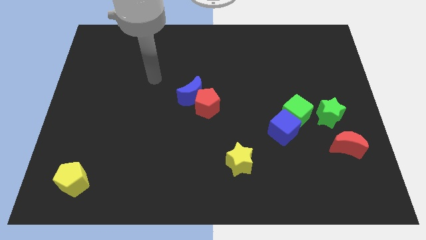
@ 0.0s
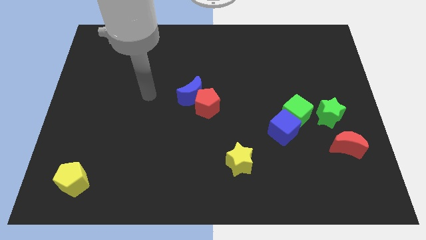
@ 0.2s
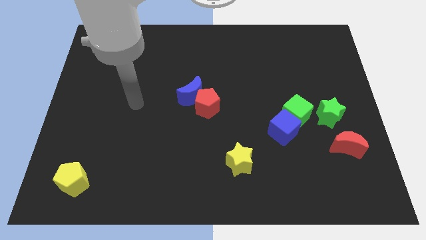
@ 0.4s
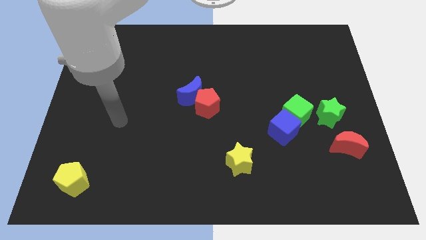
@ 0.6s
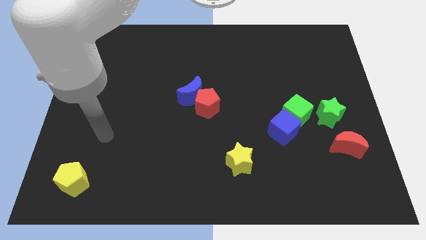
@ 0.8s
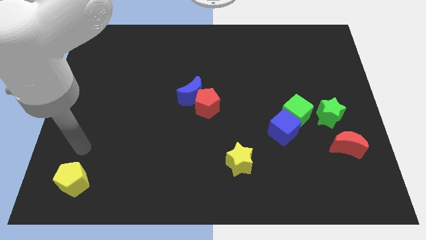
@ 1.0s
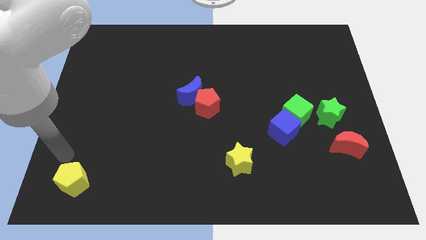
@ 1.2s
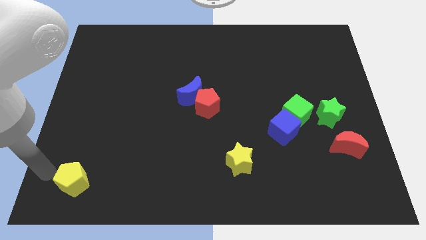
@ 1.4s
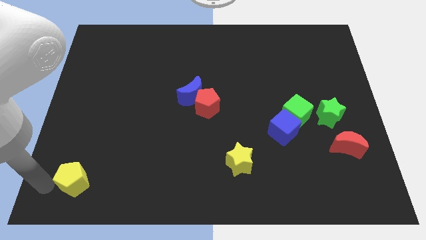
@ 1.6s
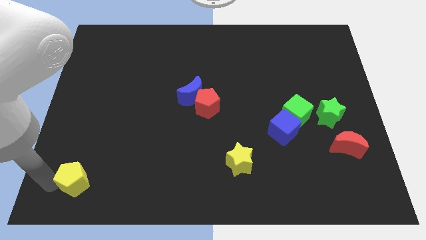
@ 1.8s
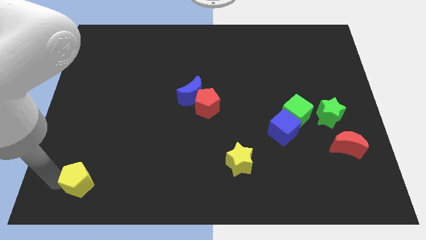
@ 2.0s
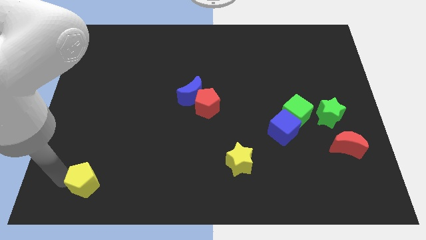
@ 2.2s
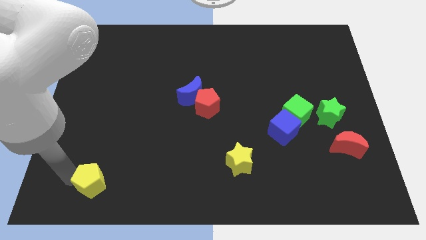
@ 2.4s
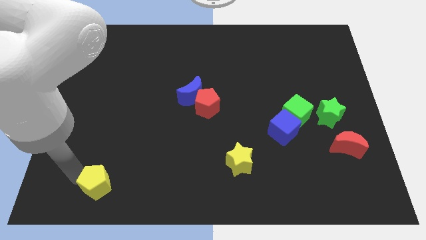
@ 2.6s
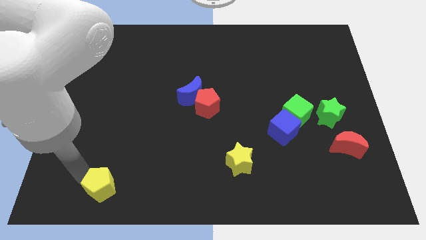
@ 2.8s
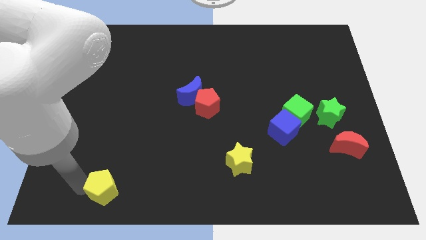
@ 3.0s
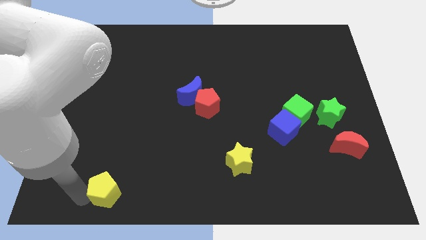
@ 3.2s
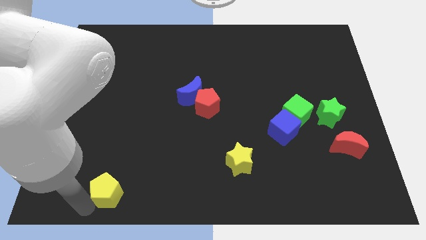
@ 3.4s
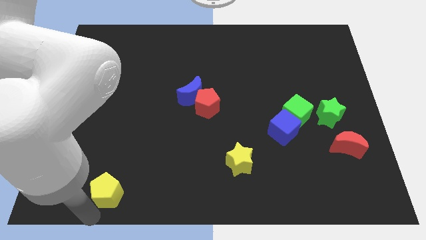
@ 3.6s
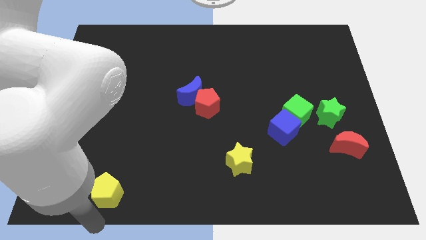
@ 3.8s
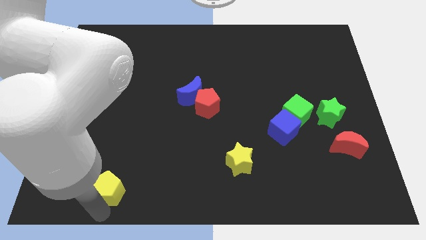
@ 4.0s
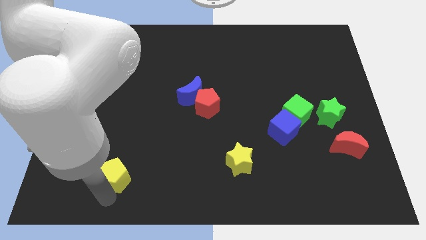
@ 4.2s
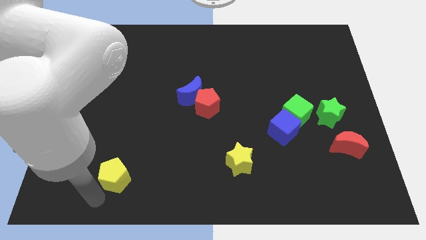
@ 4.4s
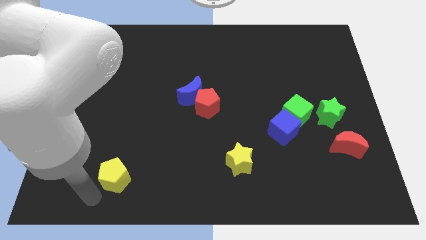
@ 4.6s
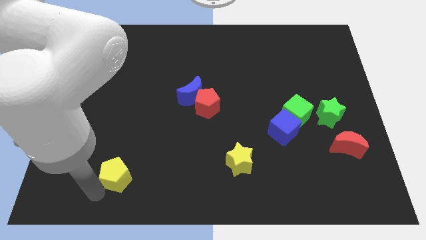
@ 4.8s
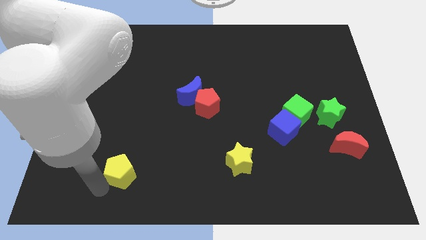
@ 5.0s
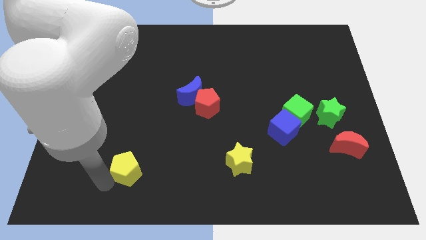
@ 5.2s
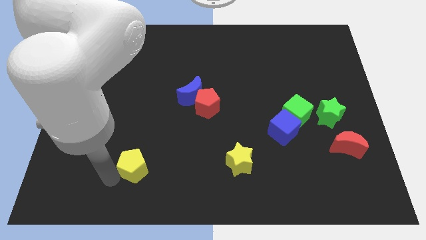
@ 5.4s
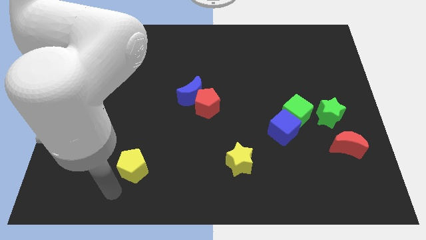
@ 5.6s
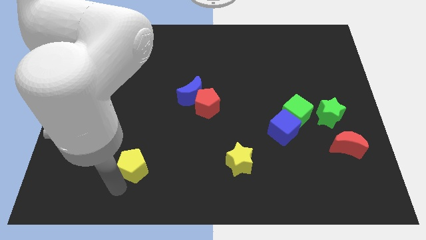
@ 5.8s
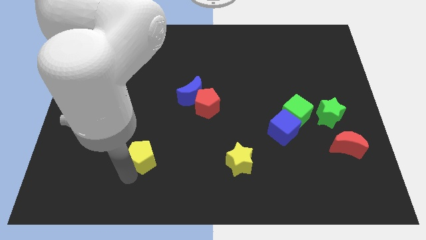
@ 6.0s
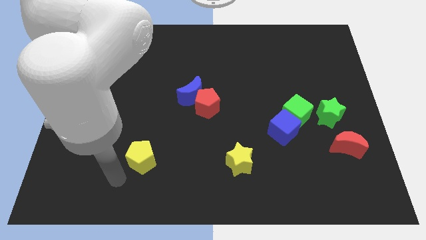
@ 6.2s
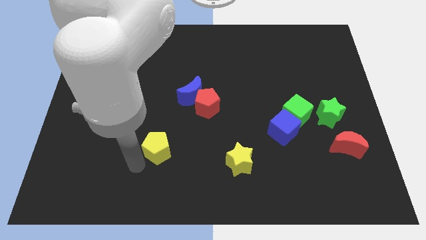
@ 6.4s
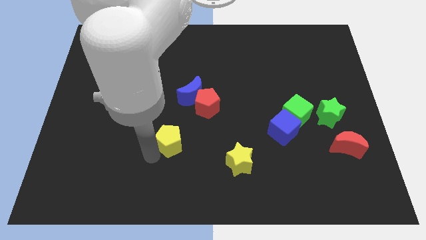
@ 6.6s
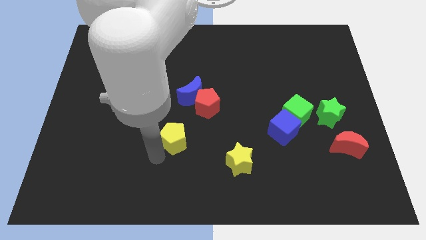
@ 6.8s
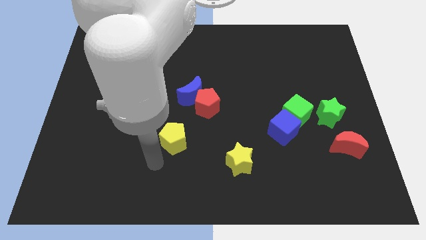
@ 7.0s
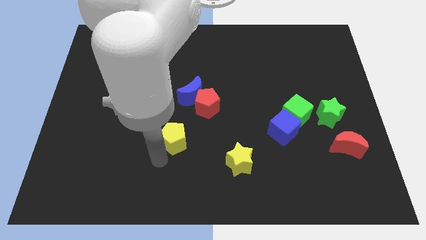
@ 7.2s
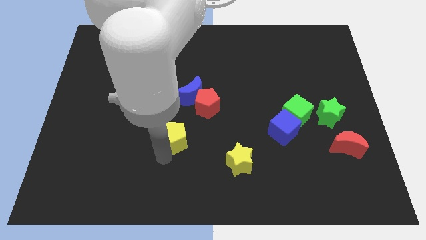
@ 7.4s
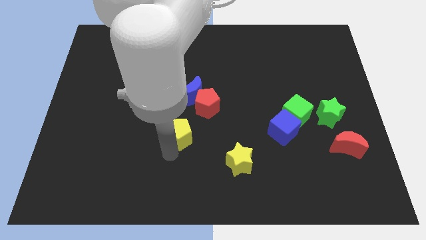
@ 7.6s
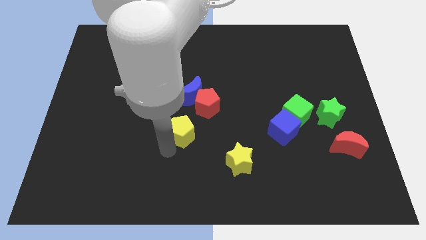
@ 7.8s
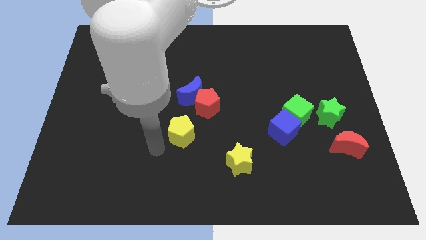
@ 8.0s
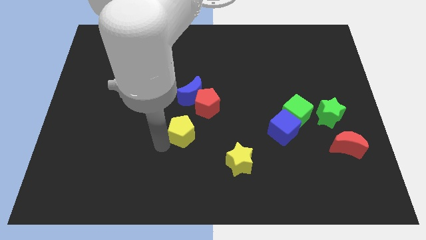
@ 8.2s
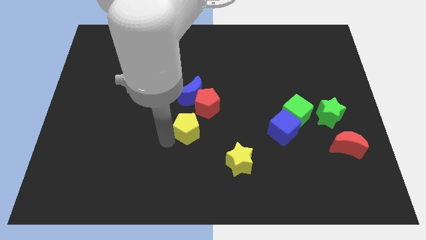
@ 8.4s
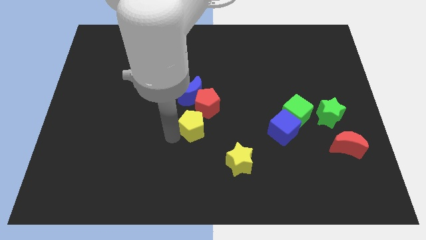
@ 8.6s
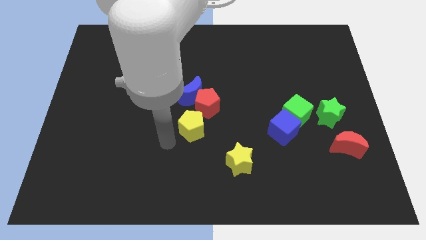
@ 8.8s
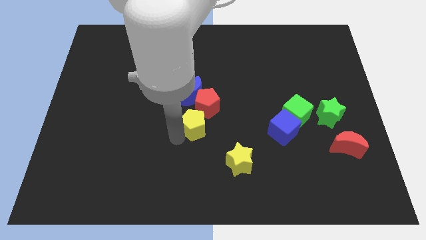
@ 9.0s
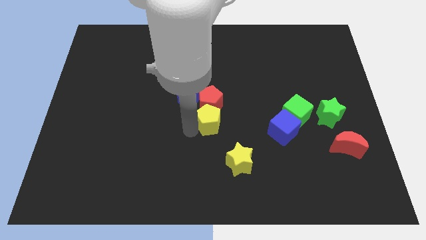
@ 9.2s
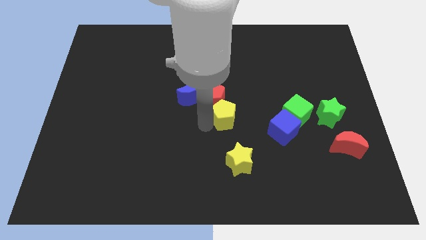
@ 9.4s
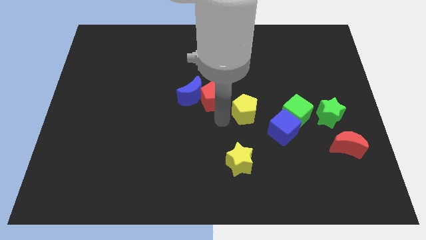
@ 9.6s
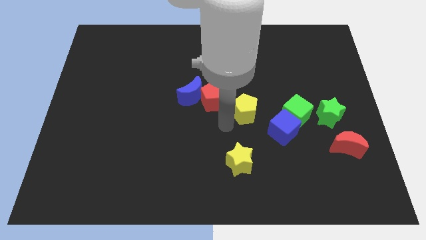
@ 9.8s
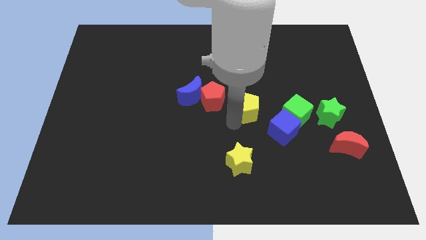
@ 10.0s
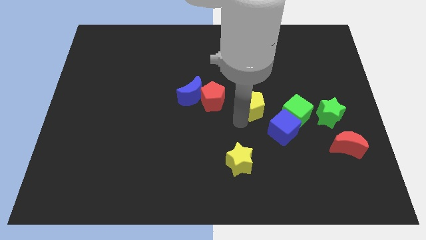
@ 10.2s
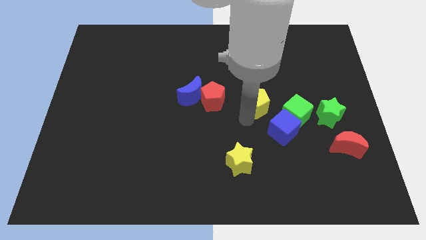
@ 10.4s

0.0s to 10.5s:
put the yellow pentagon diagonally up and to the left of the green cube

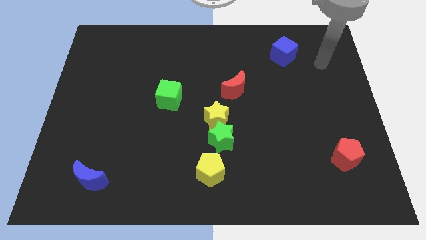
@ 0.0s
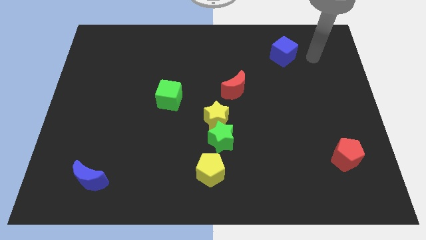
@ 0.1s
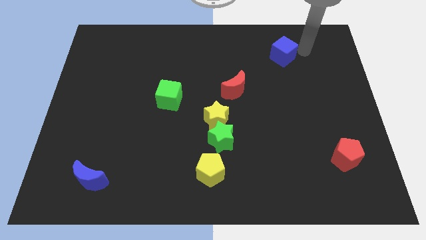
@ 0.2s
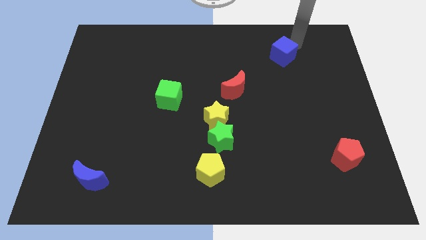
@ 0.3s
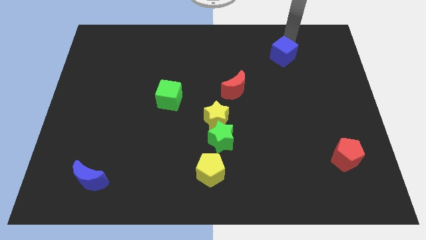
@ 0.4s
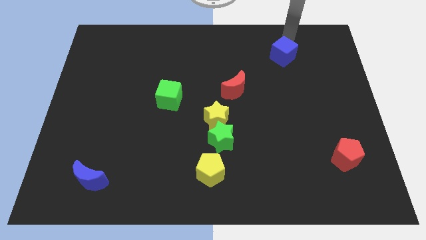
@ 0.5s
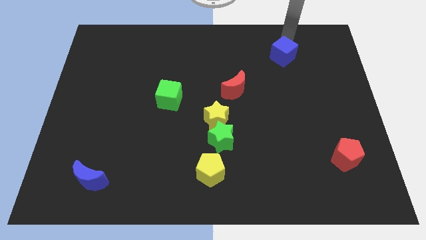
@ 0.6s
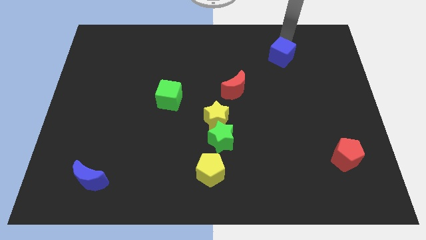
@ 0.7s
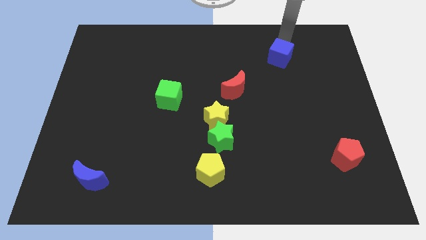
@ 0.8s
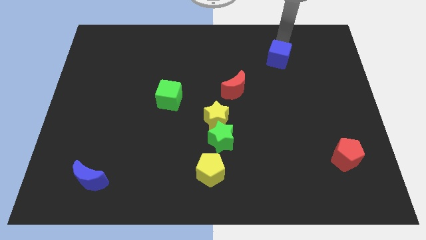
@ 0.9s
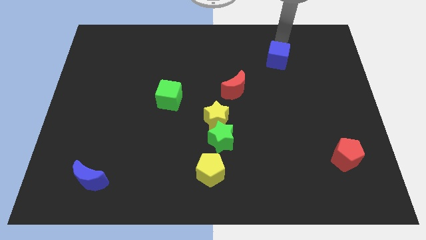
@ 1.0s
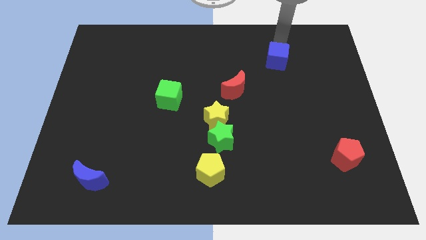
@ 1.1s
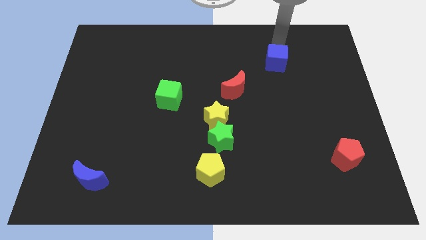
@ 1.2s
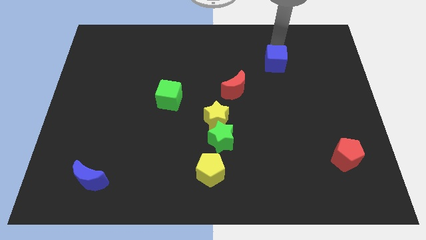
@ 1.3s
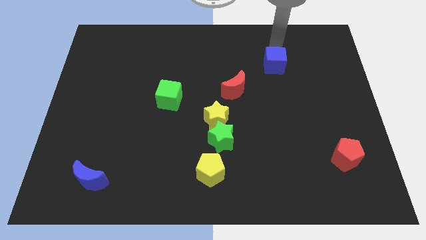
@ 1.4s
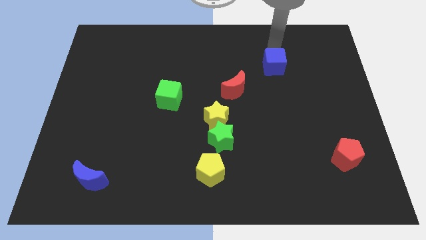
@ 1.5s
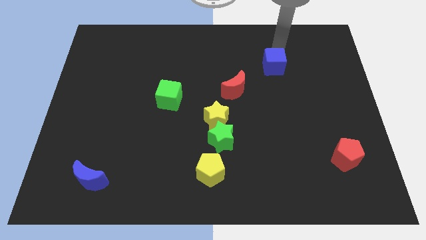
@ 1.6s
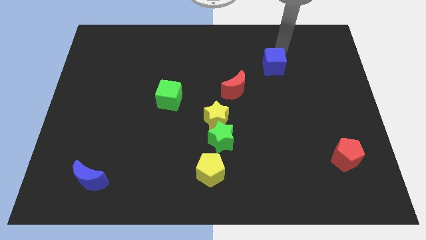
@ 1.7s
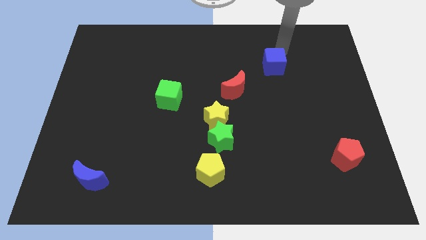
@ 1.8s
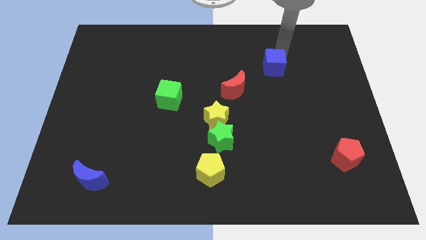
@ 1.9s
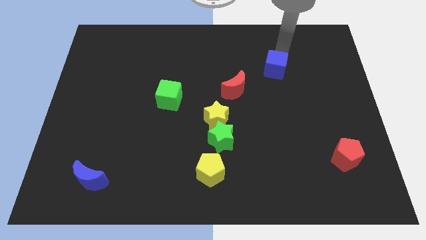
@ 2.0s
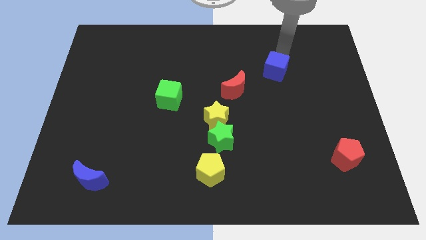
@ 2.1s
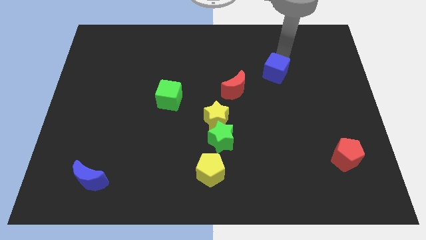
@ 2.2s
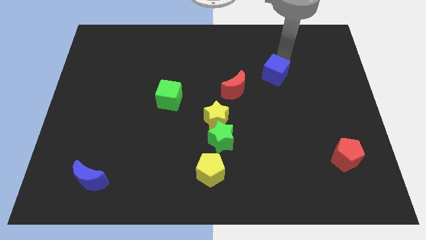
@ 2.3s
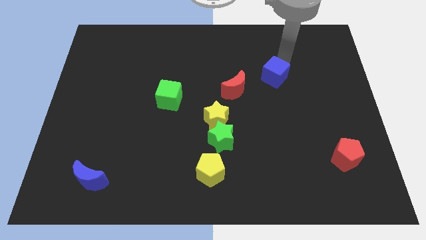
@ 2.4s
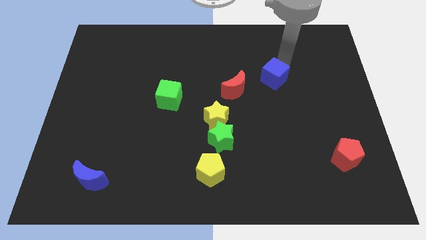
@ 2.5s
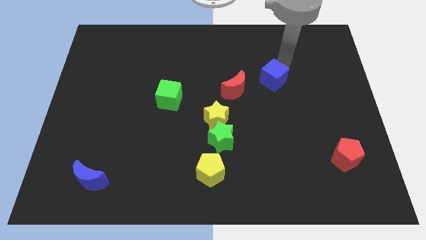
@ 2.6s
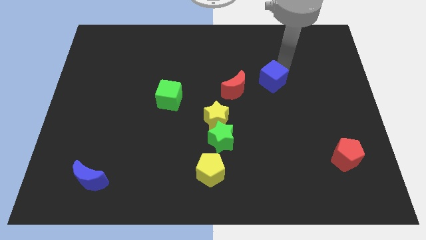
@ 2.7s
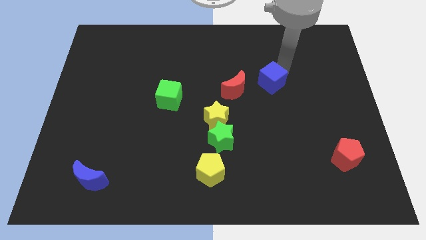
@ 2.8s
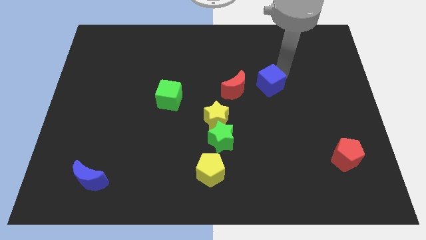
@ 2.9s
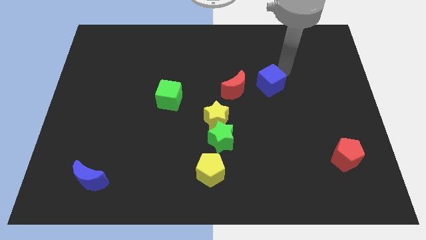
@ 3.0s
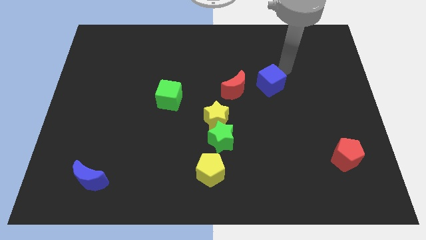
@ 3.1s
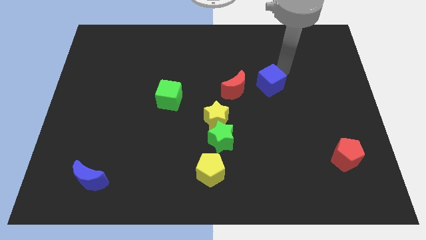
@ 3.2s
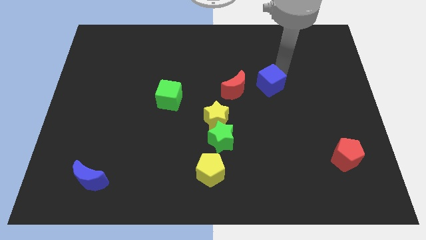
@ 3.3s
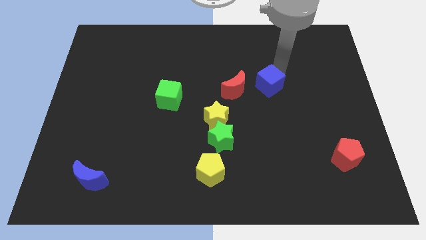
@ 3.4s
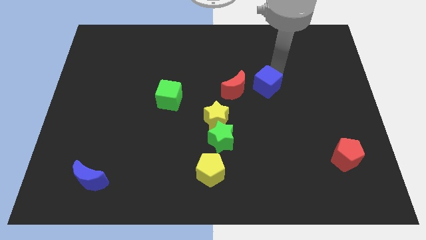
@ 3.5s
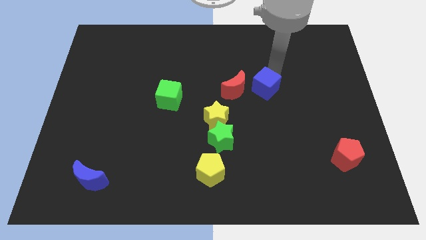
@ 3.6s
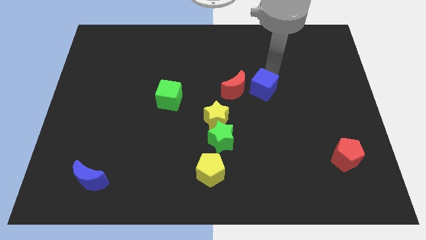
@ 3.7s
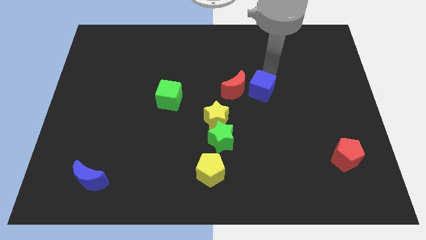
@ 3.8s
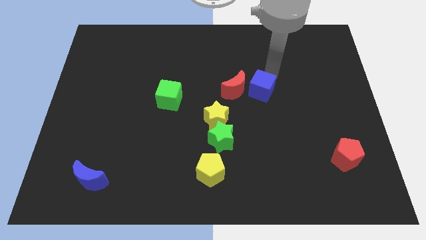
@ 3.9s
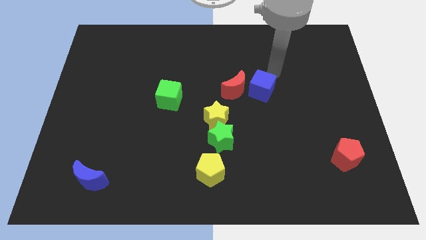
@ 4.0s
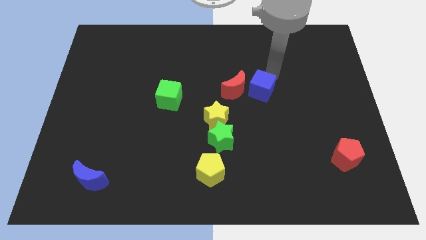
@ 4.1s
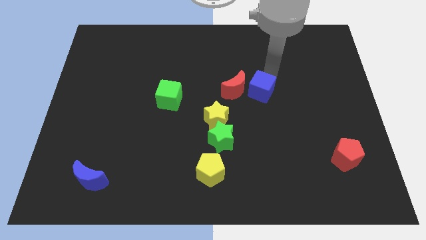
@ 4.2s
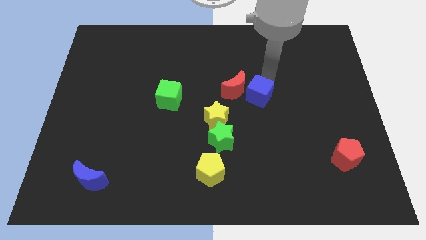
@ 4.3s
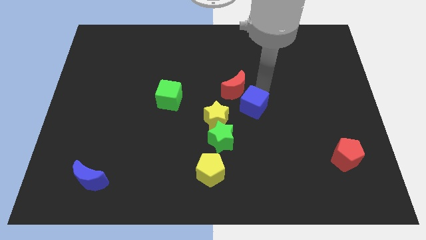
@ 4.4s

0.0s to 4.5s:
put the blue cube to the bottom of the red moon
